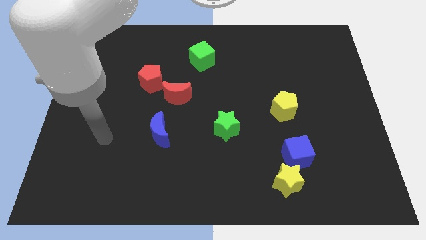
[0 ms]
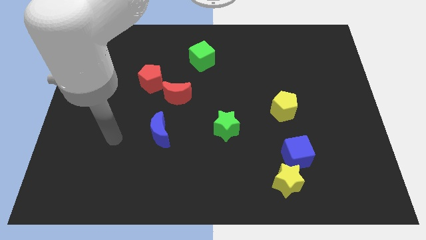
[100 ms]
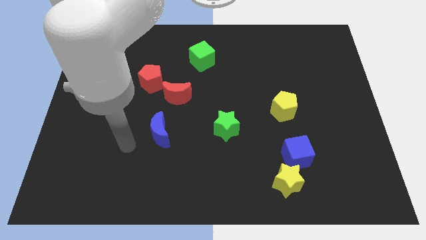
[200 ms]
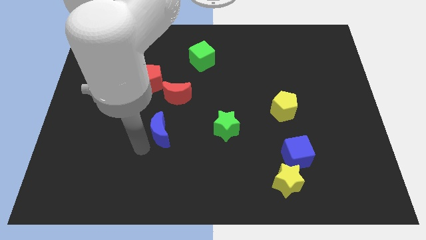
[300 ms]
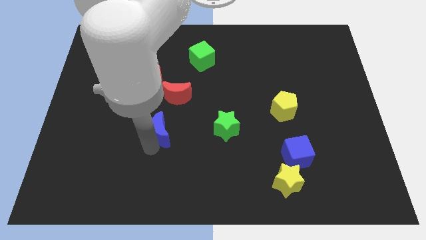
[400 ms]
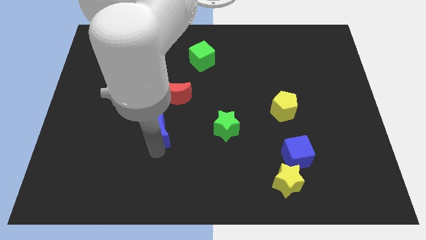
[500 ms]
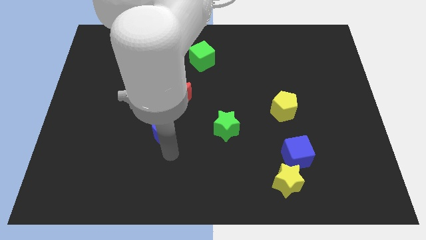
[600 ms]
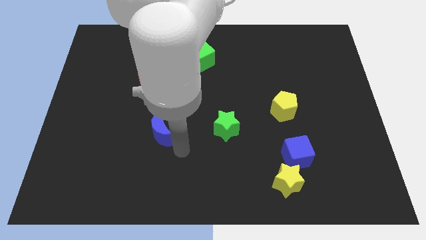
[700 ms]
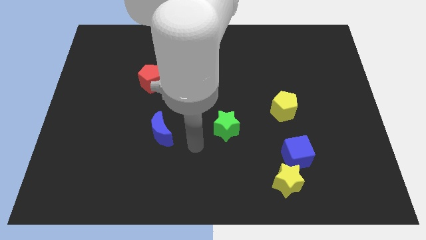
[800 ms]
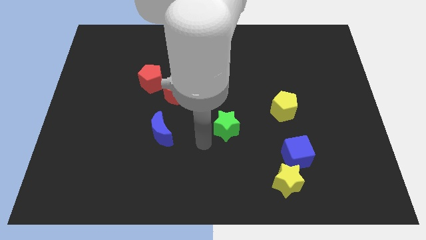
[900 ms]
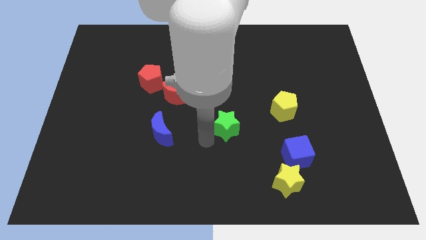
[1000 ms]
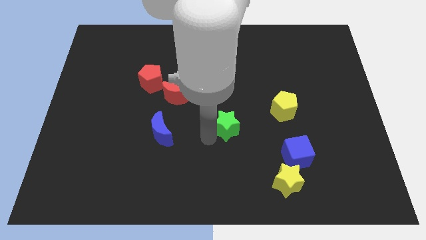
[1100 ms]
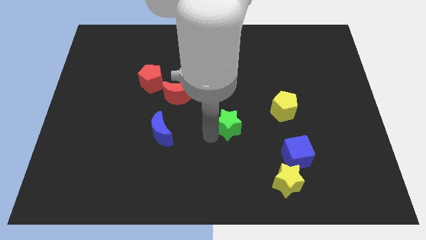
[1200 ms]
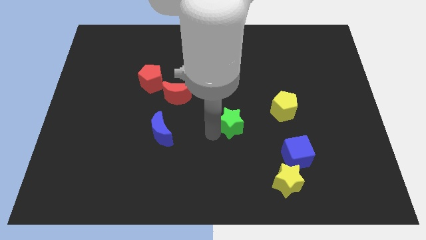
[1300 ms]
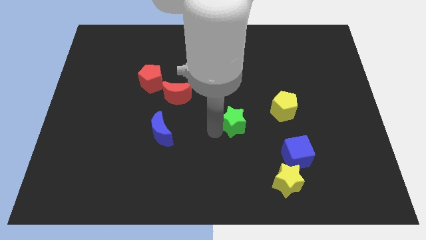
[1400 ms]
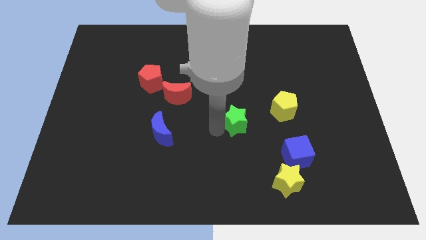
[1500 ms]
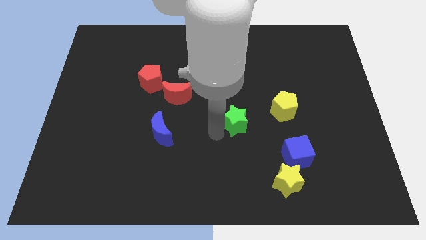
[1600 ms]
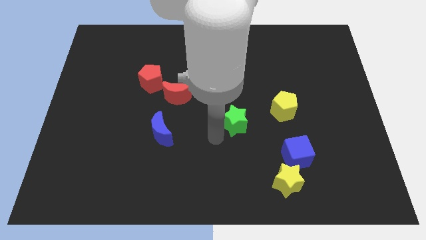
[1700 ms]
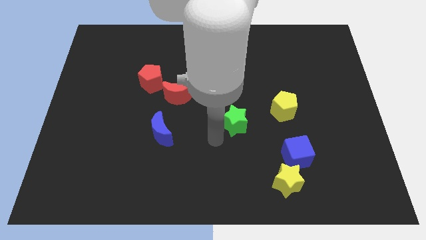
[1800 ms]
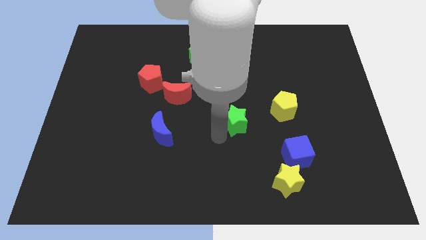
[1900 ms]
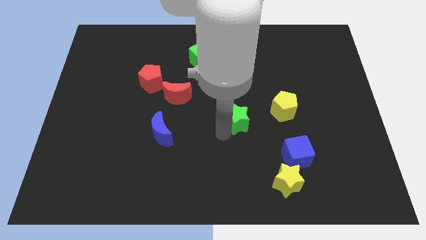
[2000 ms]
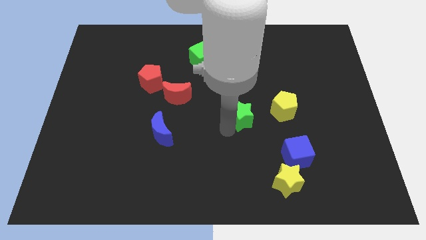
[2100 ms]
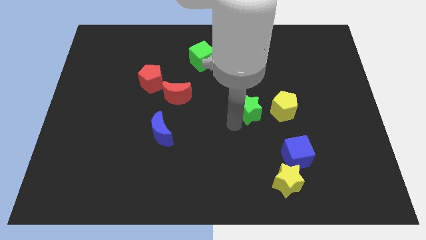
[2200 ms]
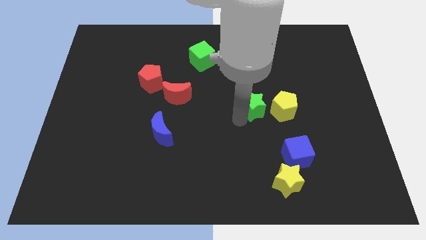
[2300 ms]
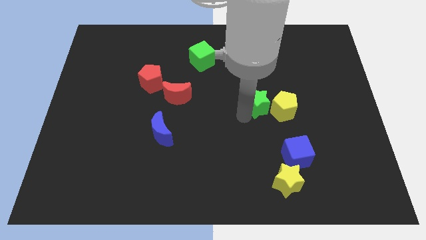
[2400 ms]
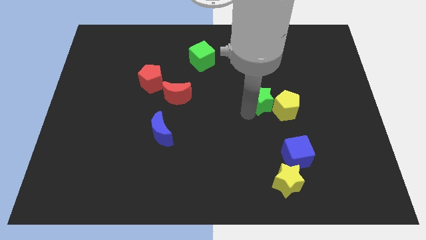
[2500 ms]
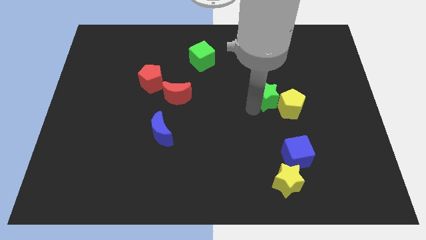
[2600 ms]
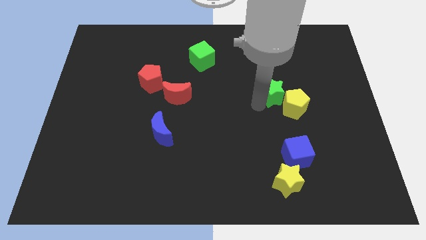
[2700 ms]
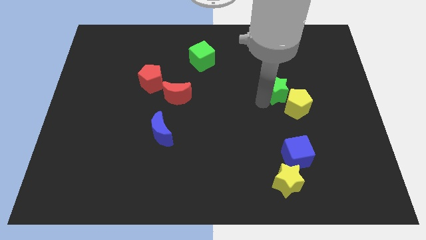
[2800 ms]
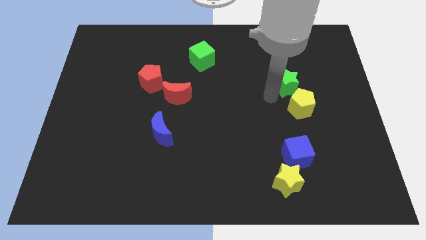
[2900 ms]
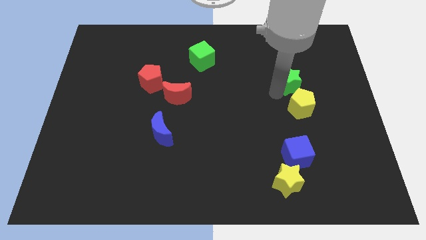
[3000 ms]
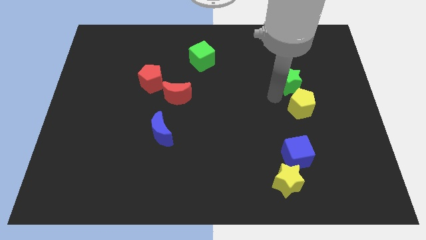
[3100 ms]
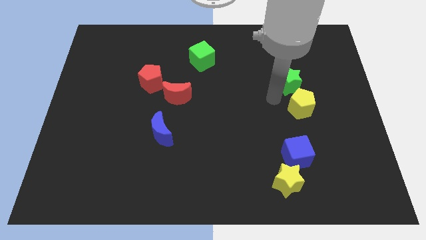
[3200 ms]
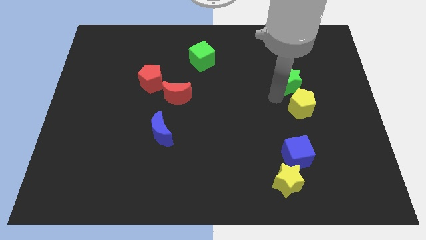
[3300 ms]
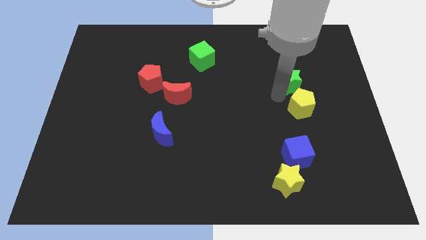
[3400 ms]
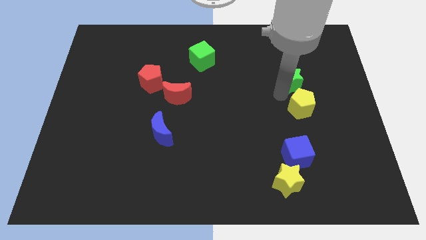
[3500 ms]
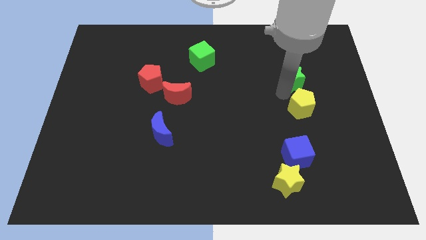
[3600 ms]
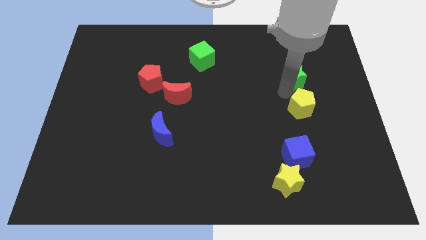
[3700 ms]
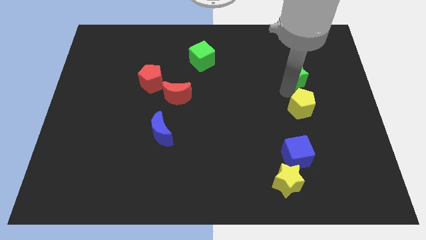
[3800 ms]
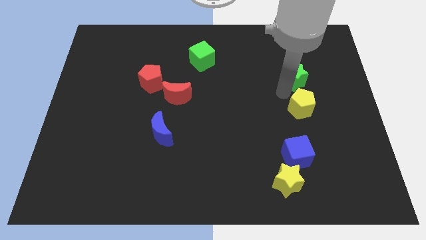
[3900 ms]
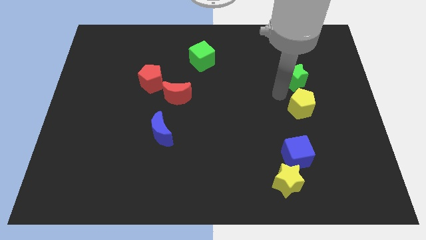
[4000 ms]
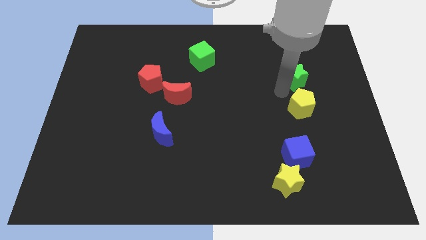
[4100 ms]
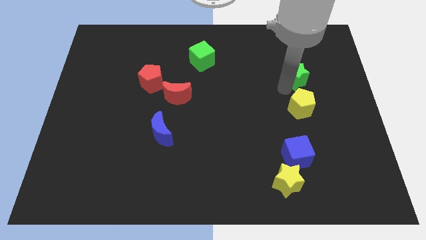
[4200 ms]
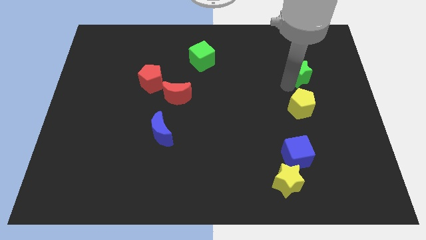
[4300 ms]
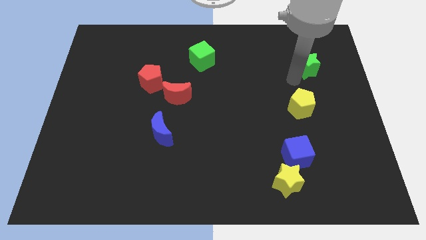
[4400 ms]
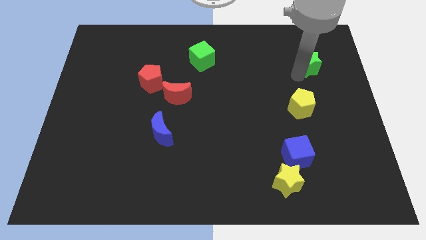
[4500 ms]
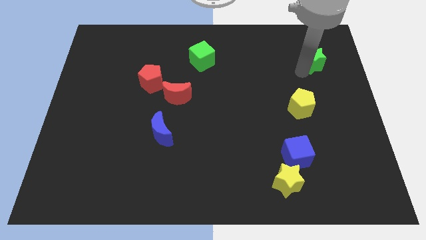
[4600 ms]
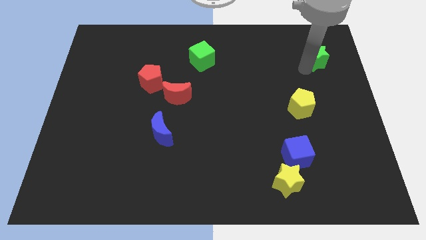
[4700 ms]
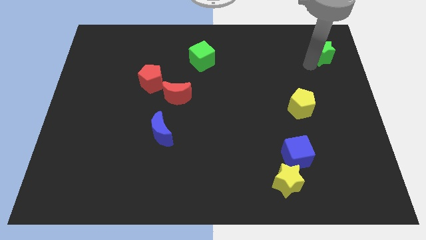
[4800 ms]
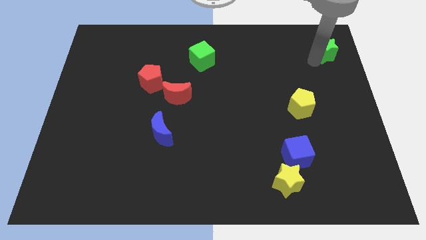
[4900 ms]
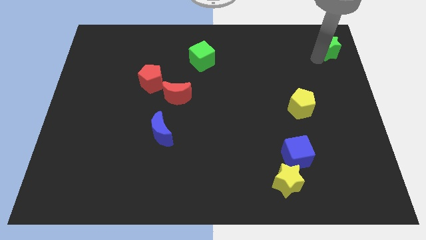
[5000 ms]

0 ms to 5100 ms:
slide the green star to the top right of the board

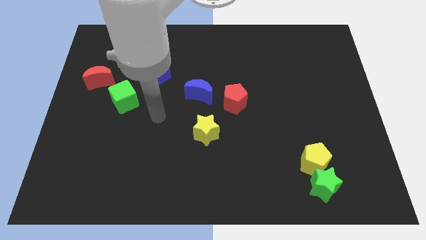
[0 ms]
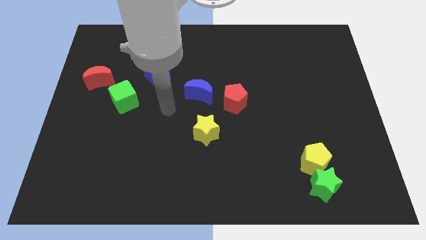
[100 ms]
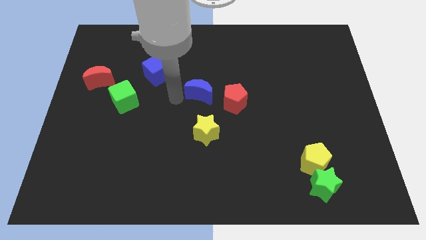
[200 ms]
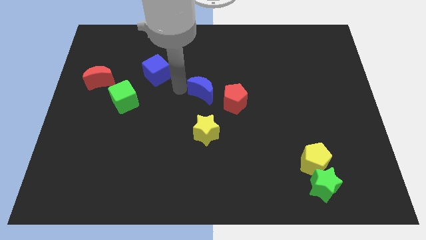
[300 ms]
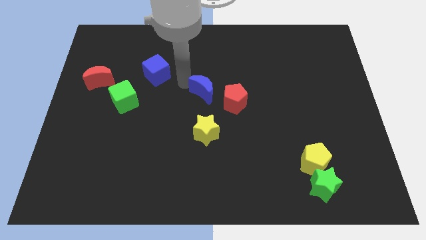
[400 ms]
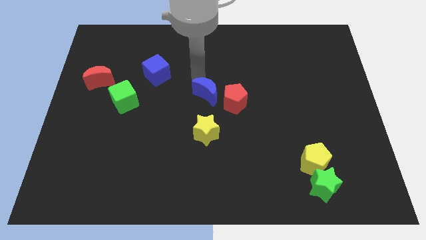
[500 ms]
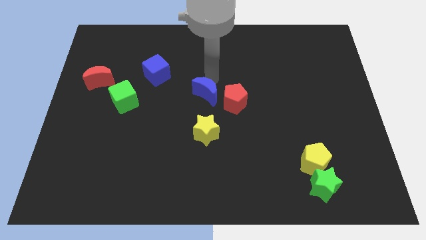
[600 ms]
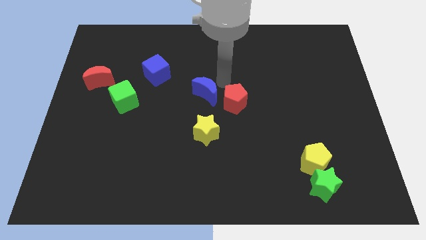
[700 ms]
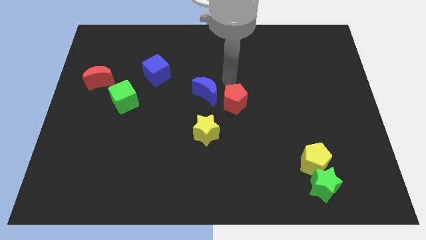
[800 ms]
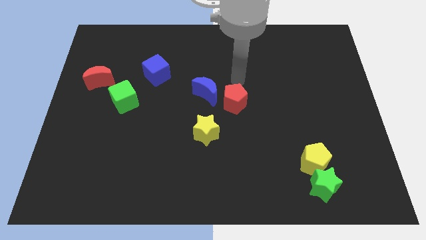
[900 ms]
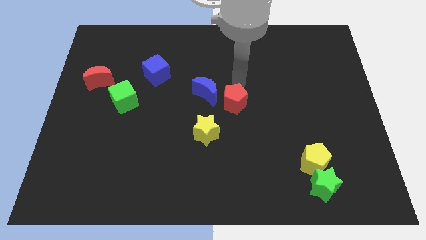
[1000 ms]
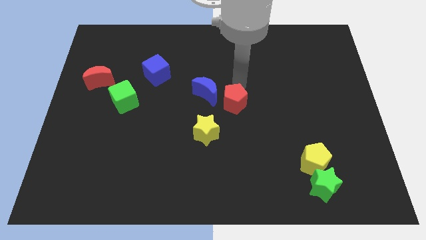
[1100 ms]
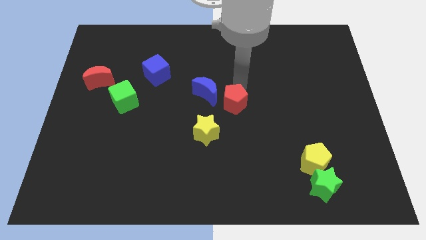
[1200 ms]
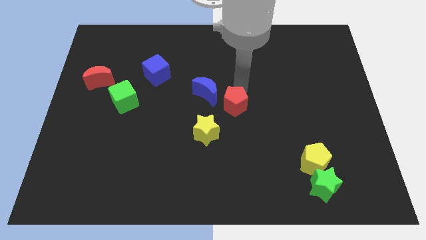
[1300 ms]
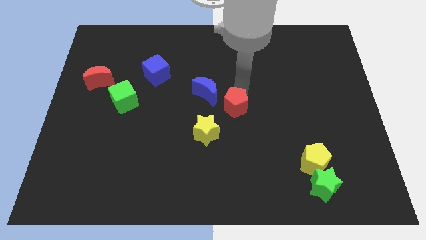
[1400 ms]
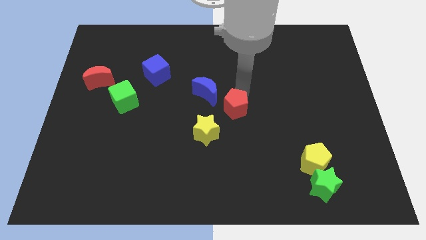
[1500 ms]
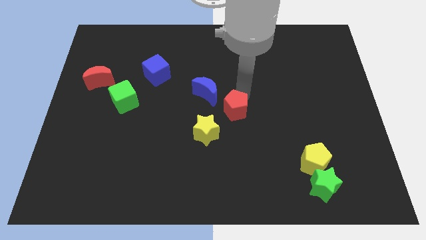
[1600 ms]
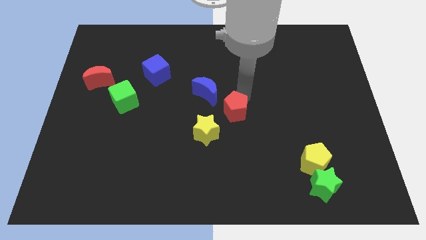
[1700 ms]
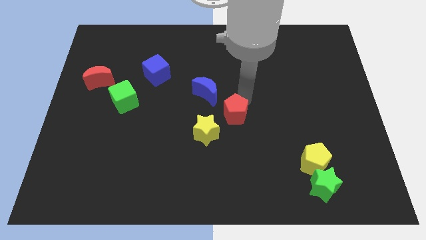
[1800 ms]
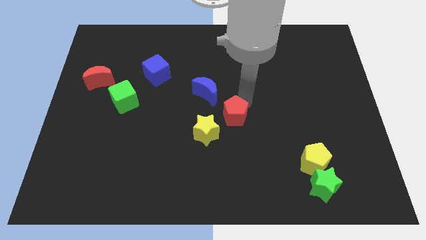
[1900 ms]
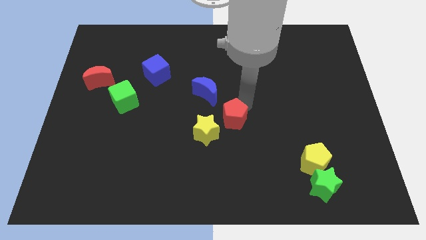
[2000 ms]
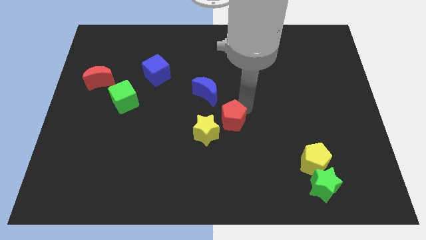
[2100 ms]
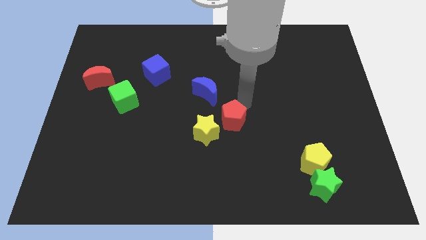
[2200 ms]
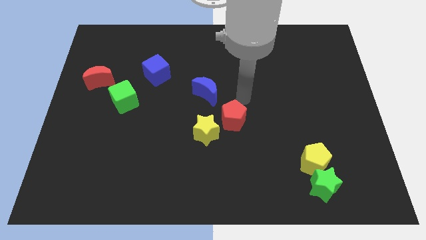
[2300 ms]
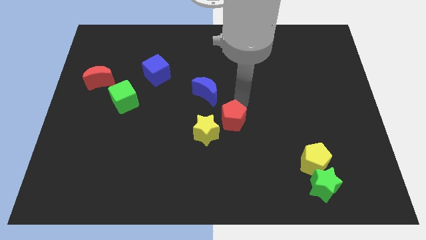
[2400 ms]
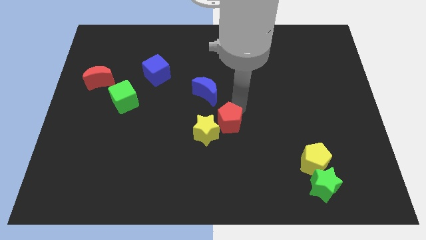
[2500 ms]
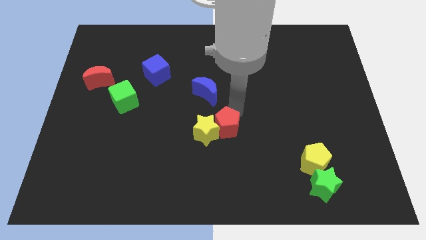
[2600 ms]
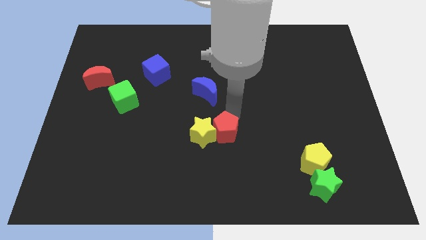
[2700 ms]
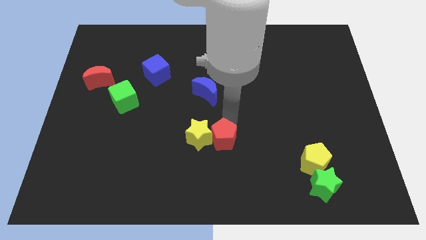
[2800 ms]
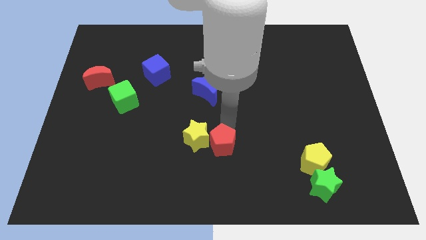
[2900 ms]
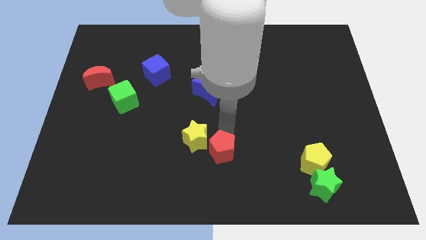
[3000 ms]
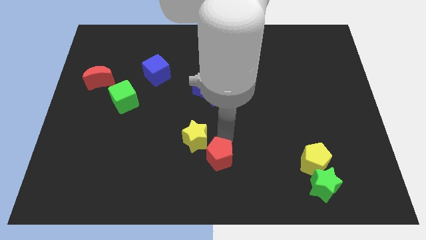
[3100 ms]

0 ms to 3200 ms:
move the red pentagon to the bottom
